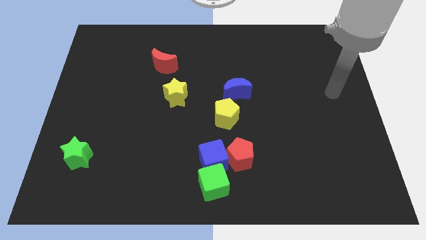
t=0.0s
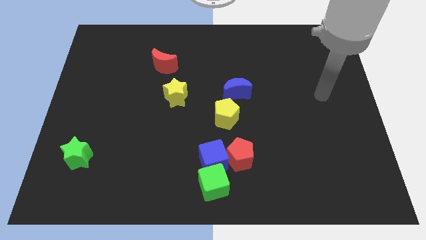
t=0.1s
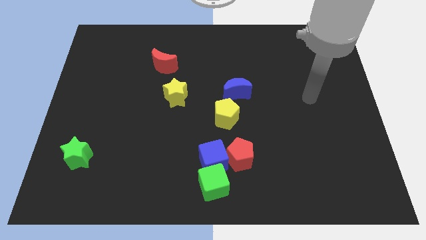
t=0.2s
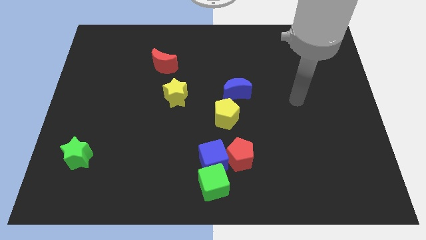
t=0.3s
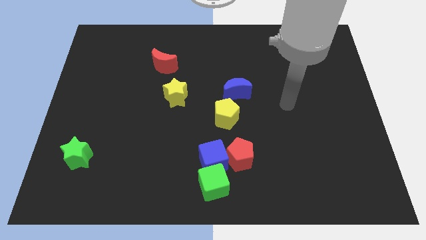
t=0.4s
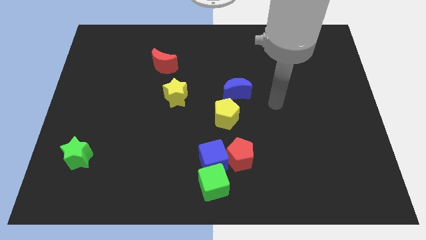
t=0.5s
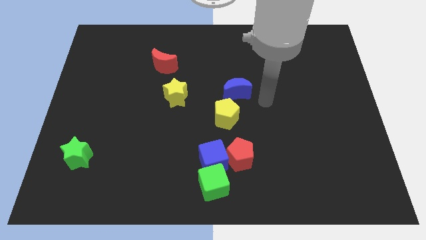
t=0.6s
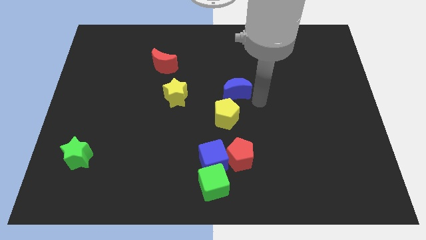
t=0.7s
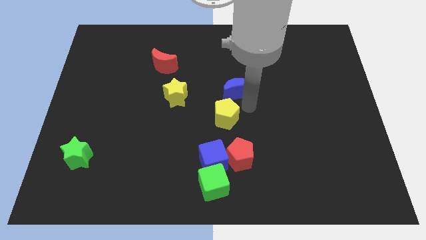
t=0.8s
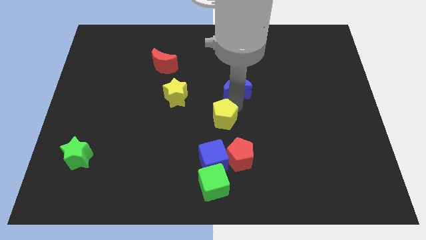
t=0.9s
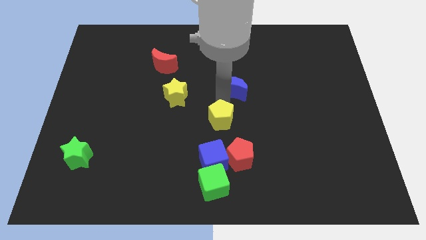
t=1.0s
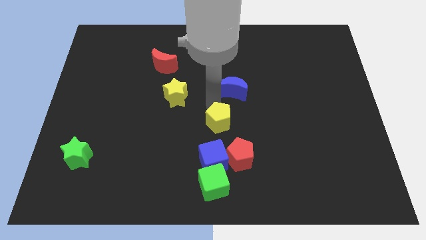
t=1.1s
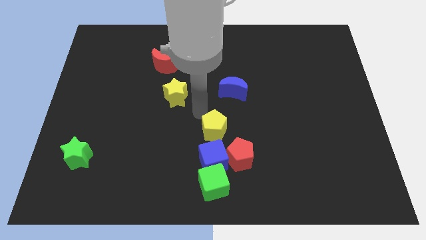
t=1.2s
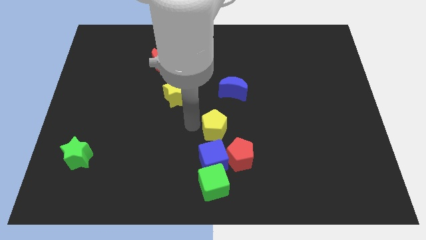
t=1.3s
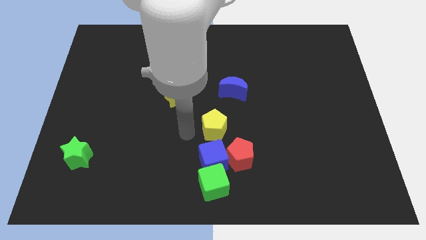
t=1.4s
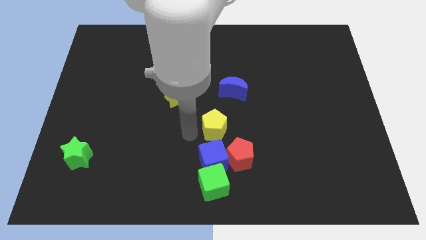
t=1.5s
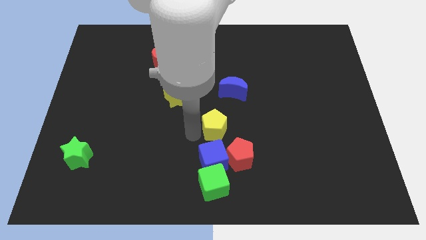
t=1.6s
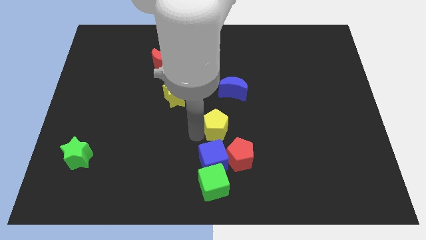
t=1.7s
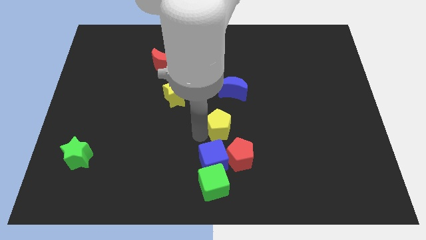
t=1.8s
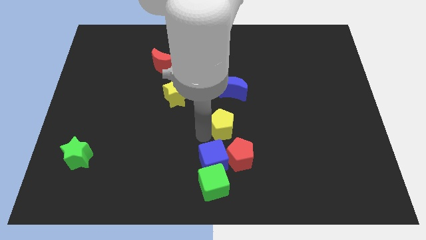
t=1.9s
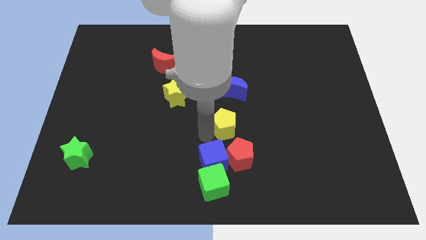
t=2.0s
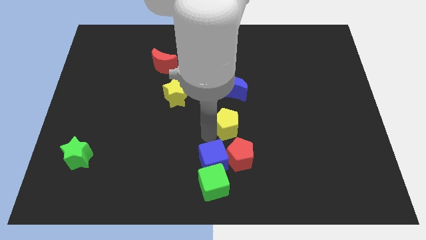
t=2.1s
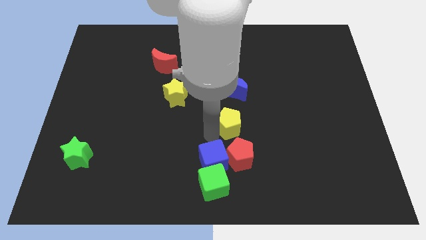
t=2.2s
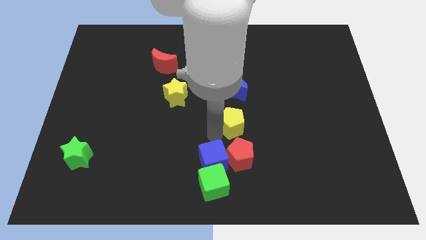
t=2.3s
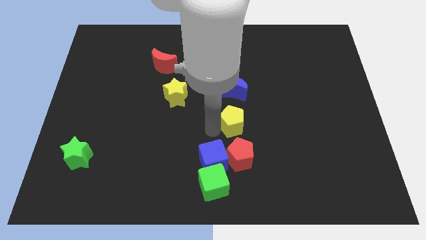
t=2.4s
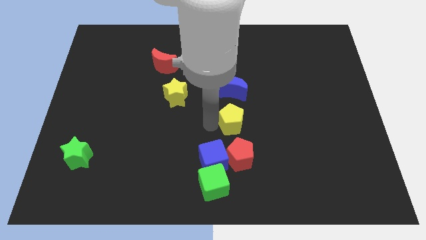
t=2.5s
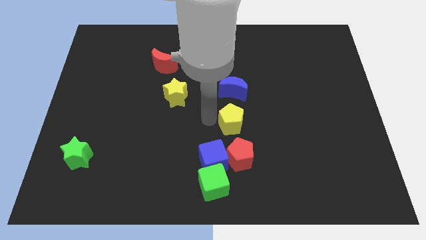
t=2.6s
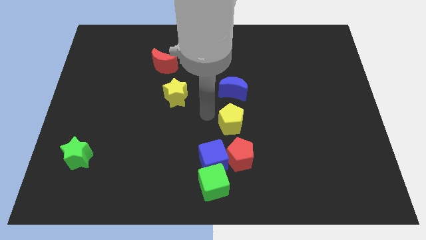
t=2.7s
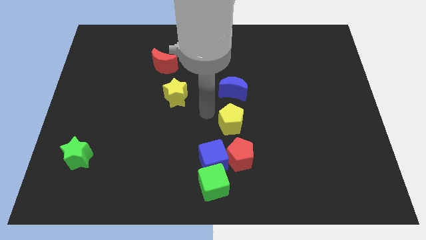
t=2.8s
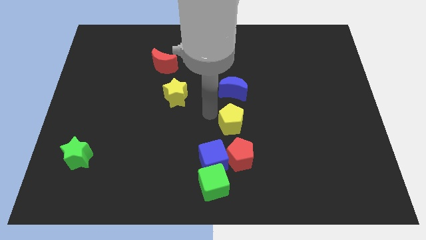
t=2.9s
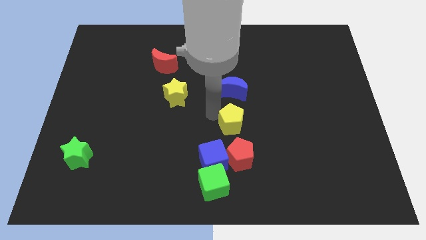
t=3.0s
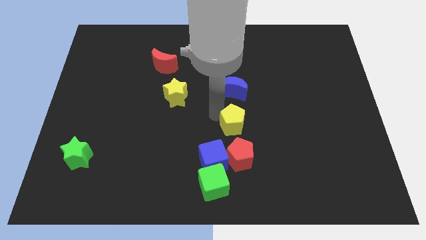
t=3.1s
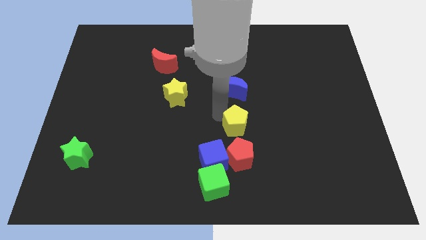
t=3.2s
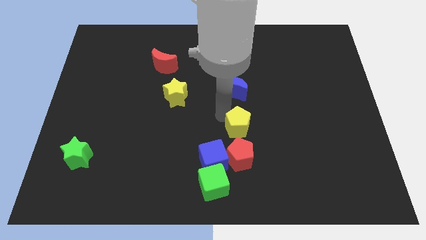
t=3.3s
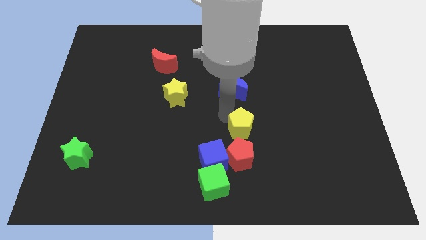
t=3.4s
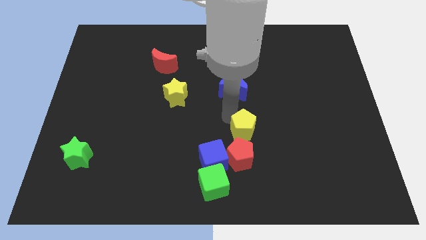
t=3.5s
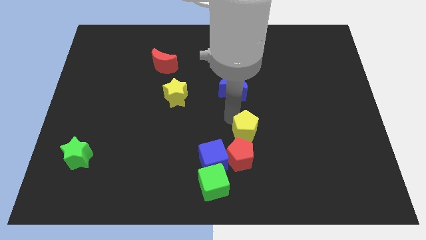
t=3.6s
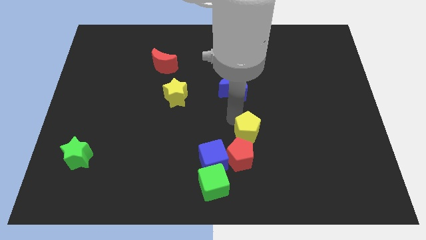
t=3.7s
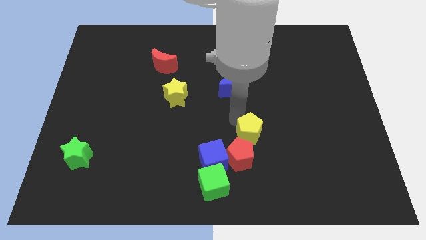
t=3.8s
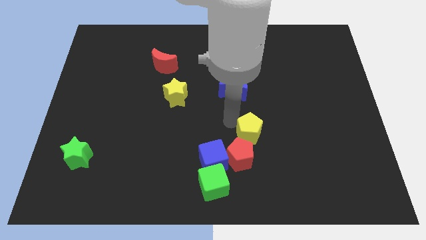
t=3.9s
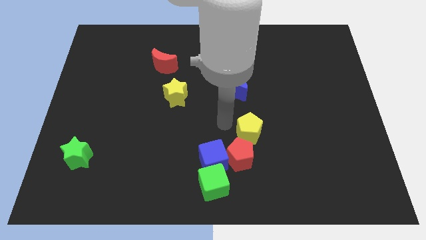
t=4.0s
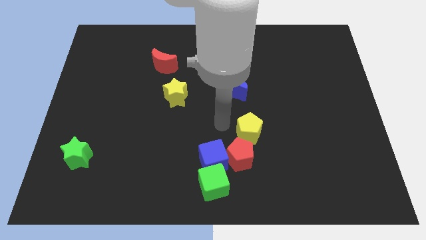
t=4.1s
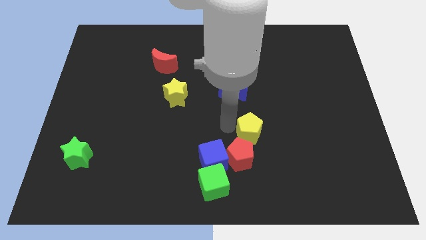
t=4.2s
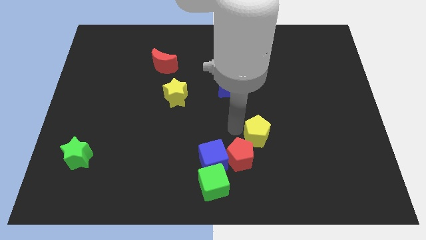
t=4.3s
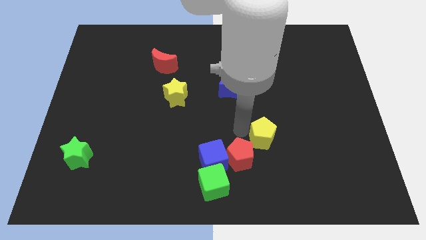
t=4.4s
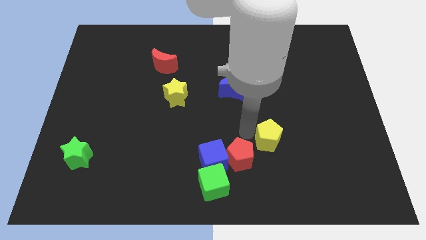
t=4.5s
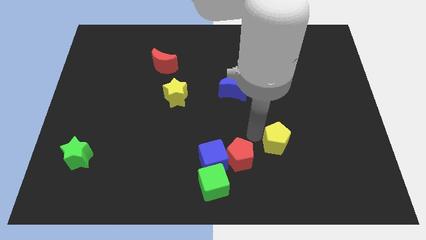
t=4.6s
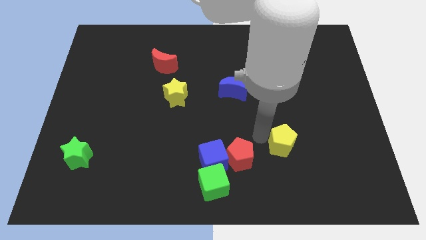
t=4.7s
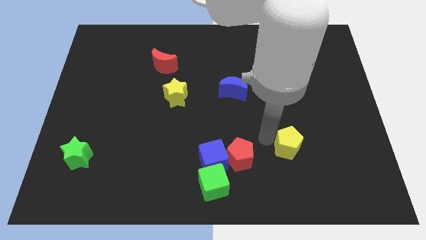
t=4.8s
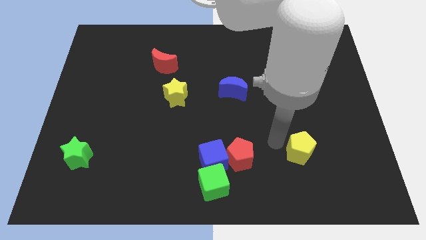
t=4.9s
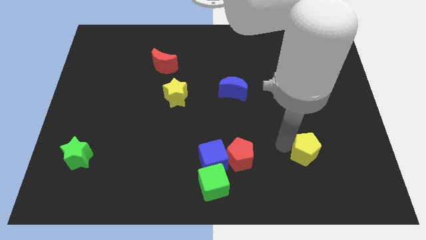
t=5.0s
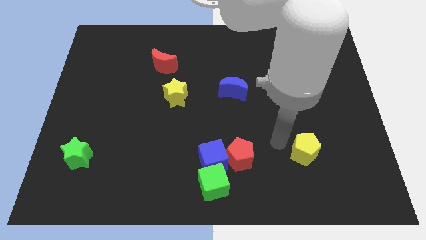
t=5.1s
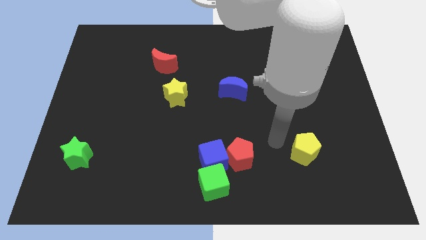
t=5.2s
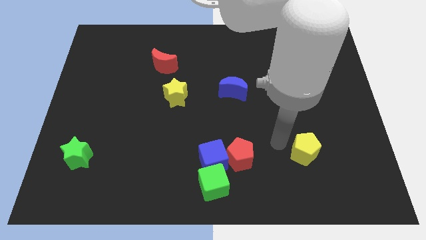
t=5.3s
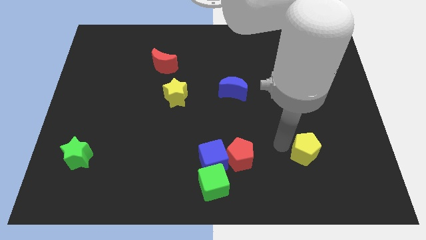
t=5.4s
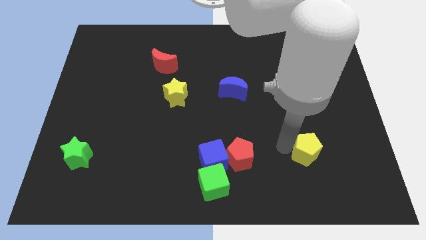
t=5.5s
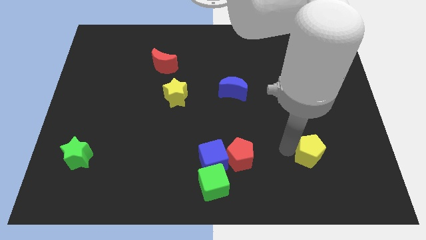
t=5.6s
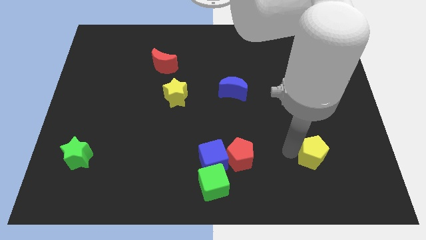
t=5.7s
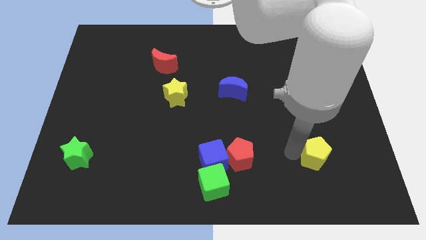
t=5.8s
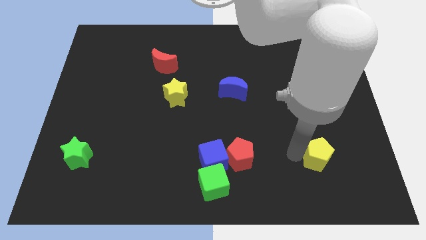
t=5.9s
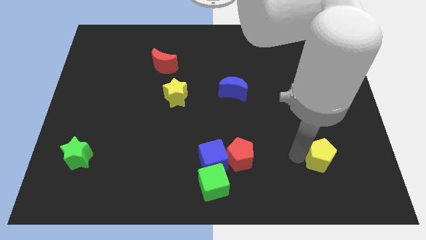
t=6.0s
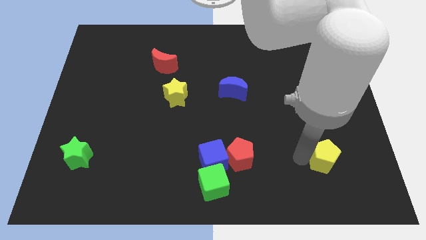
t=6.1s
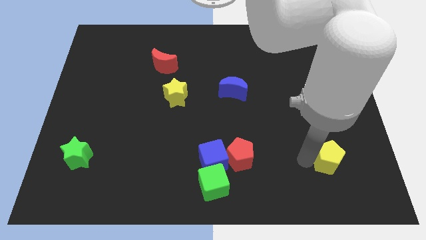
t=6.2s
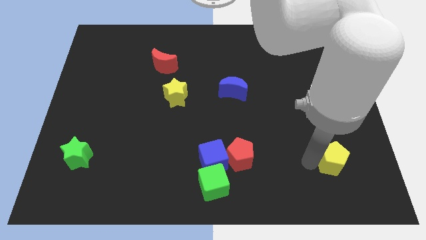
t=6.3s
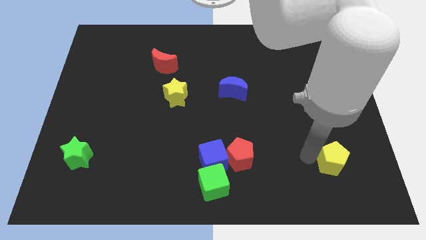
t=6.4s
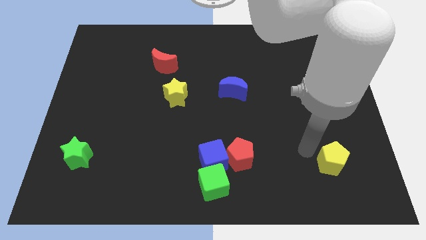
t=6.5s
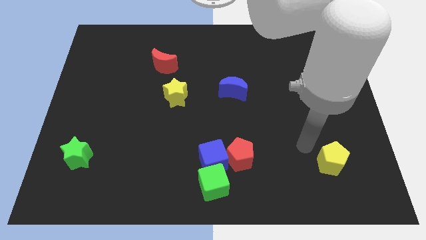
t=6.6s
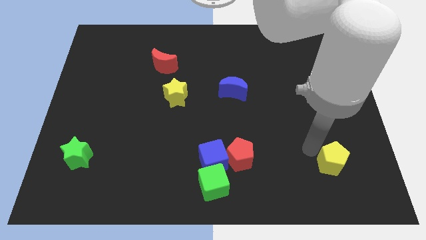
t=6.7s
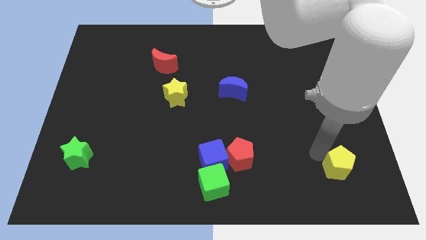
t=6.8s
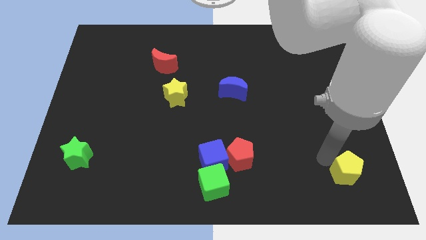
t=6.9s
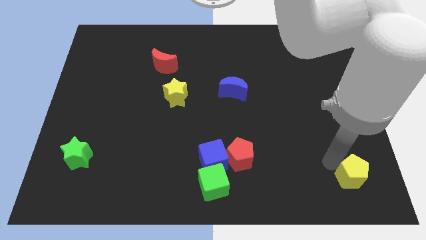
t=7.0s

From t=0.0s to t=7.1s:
push the yellow pentagon to the bottom right corner
